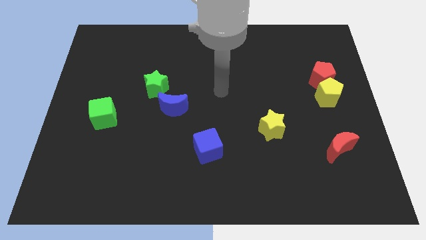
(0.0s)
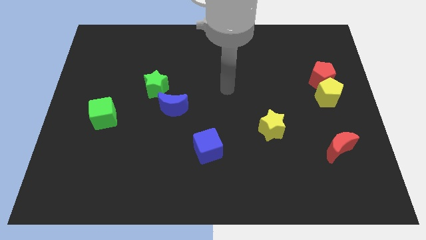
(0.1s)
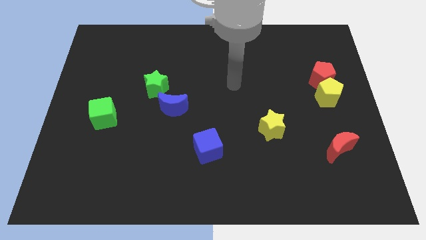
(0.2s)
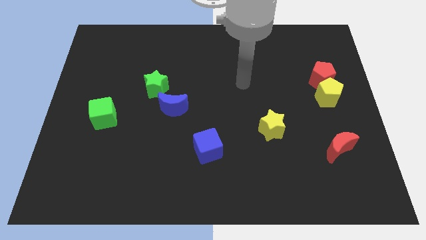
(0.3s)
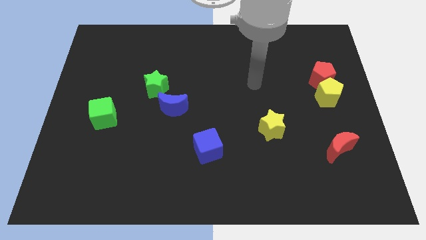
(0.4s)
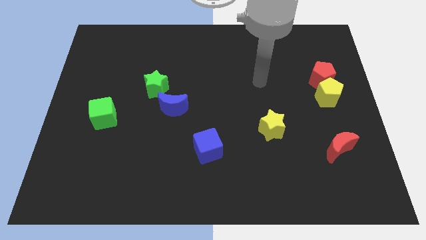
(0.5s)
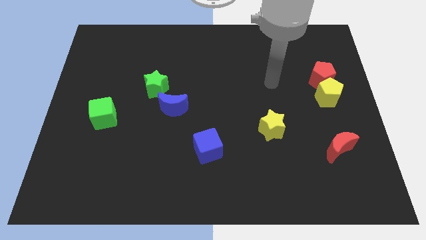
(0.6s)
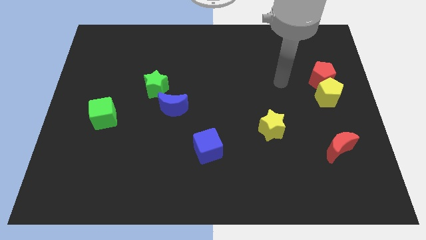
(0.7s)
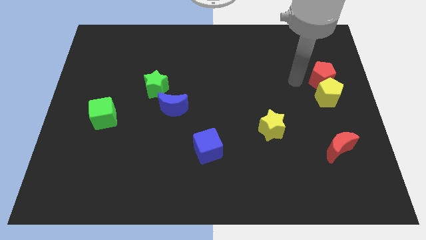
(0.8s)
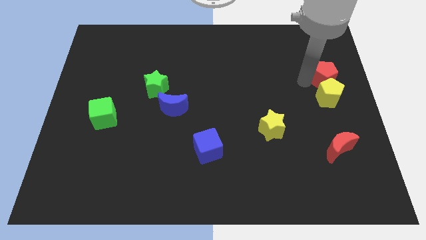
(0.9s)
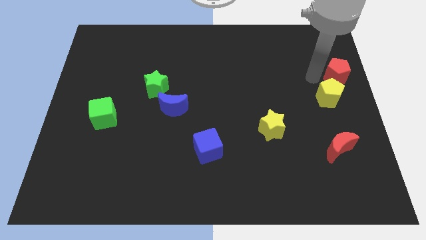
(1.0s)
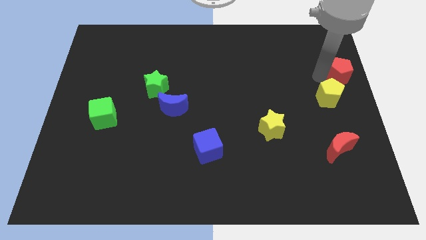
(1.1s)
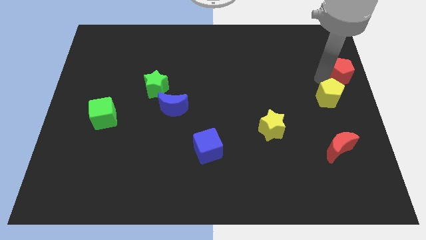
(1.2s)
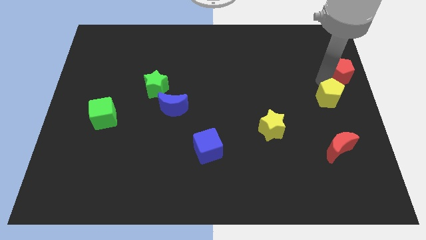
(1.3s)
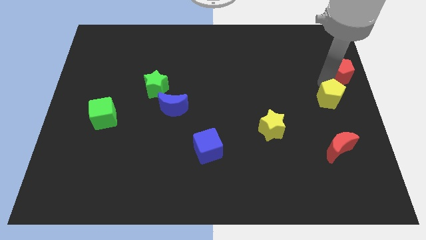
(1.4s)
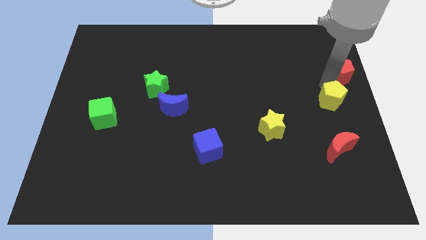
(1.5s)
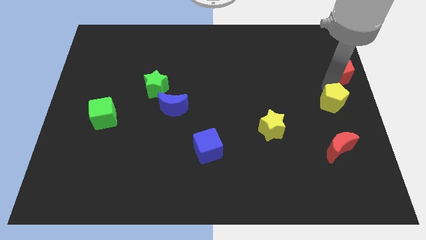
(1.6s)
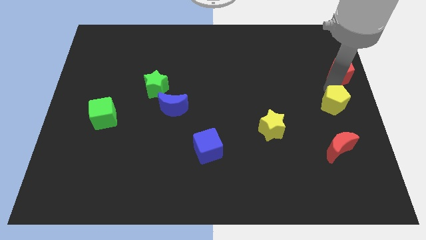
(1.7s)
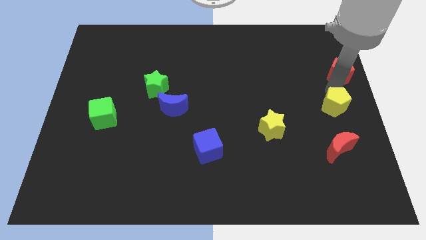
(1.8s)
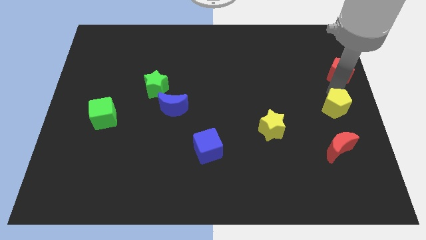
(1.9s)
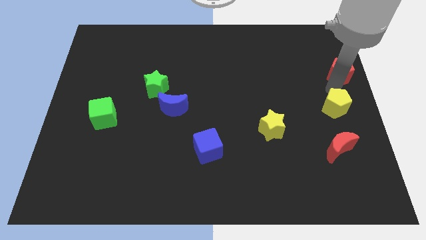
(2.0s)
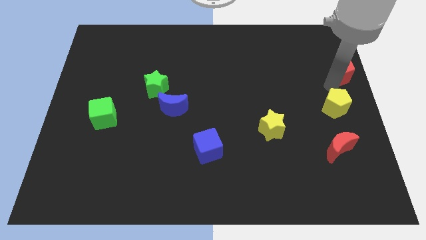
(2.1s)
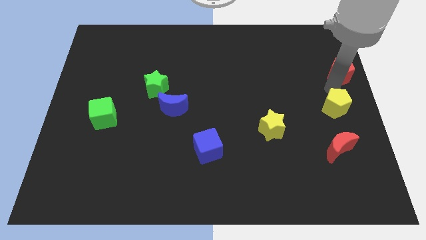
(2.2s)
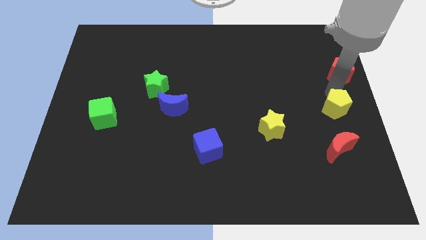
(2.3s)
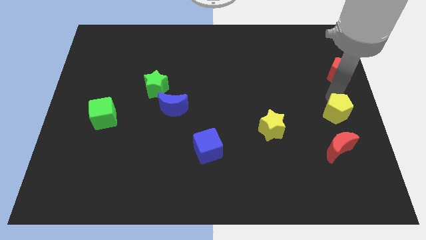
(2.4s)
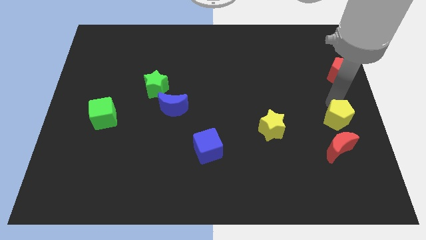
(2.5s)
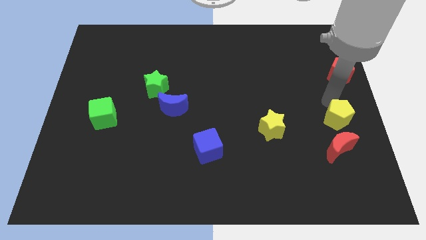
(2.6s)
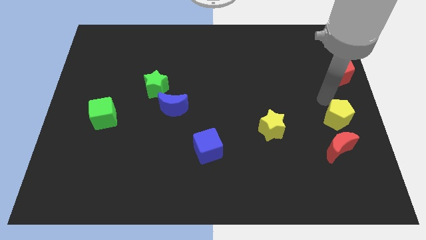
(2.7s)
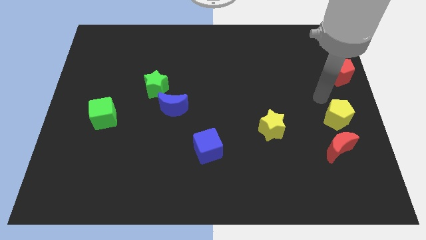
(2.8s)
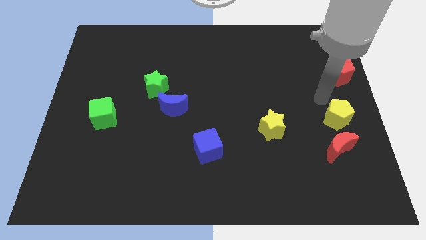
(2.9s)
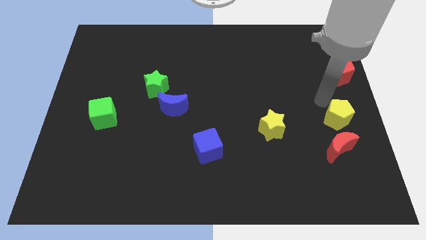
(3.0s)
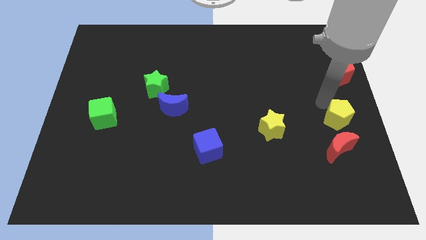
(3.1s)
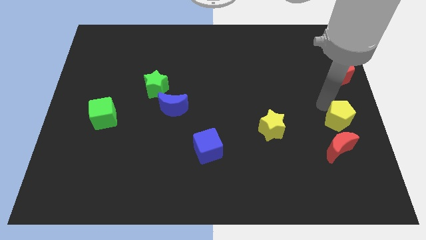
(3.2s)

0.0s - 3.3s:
slightly slide the yellow pentagon downwards

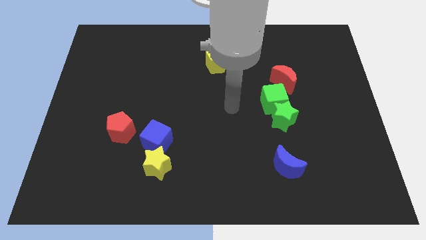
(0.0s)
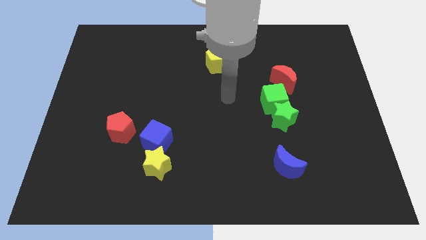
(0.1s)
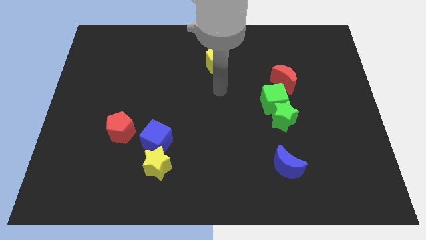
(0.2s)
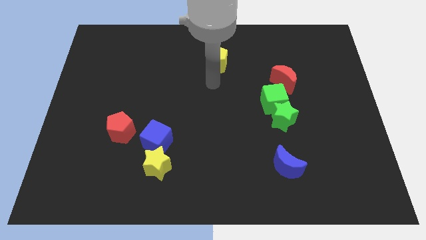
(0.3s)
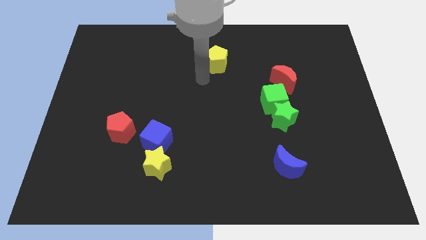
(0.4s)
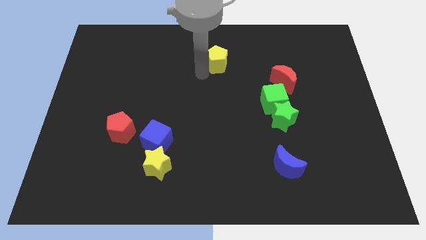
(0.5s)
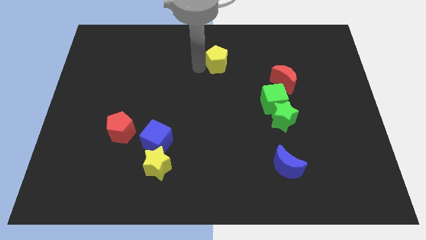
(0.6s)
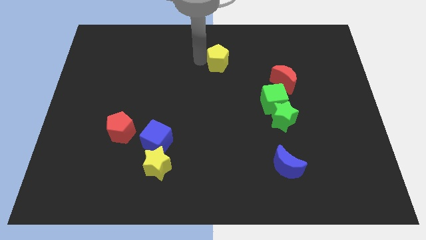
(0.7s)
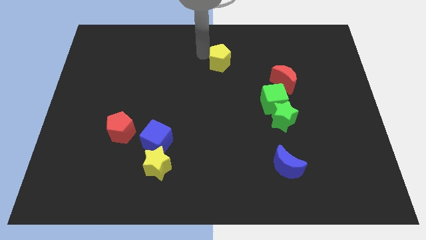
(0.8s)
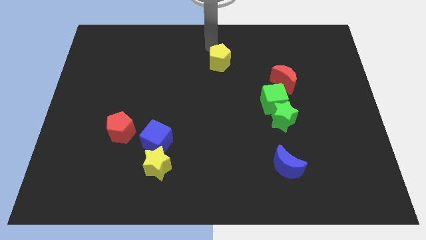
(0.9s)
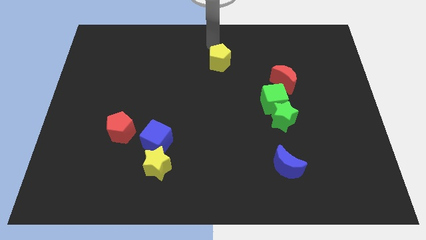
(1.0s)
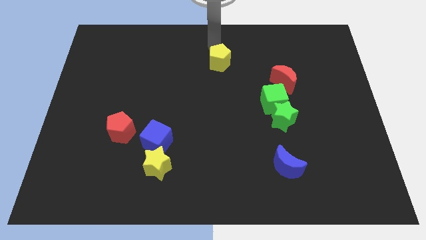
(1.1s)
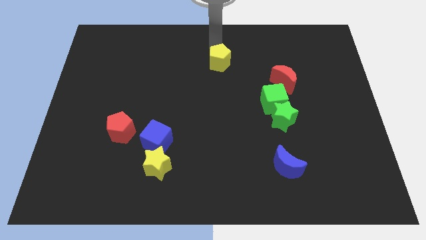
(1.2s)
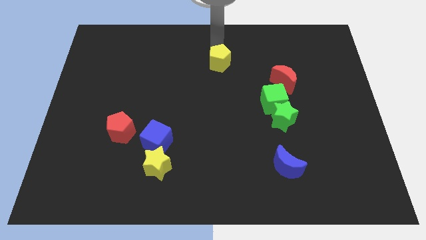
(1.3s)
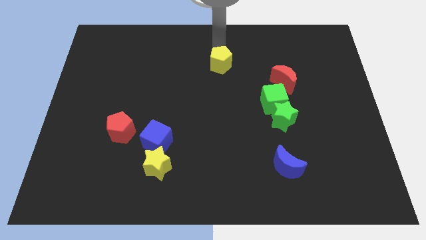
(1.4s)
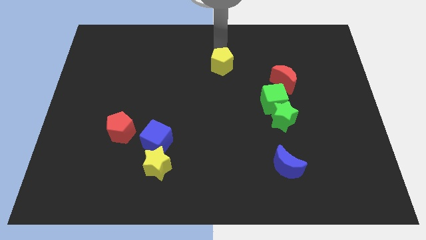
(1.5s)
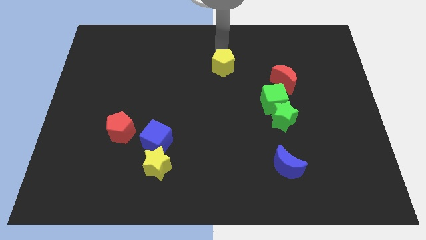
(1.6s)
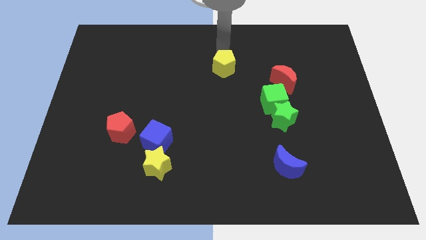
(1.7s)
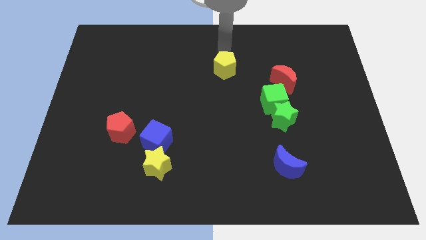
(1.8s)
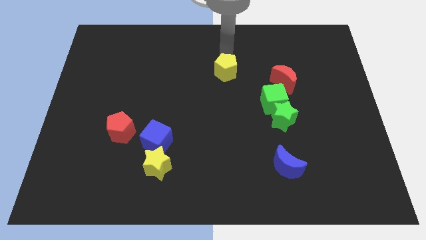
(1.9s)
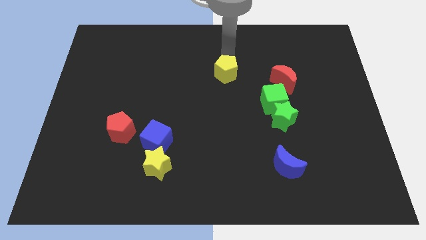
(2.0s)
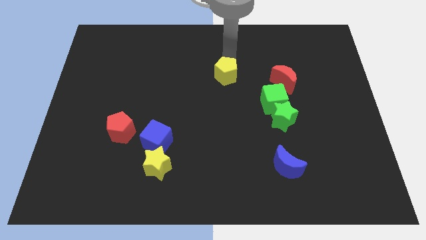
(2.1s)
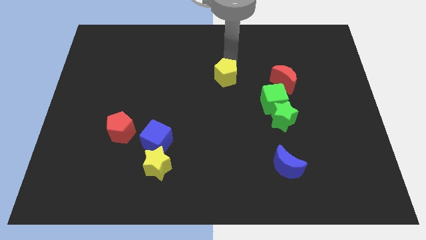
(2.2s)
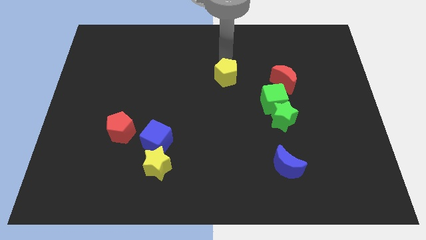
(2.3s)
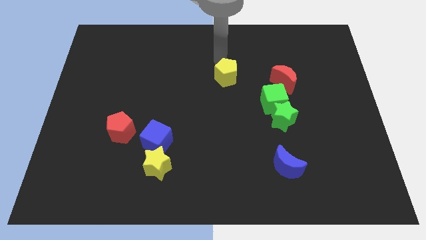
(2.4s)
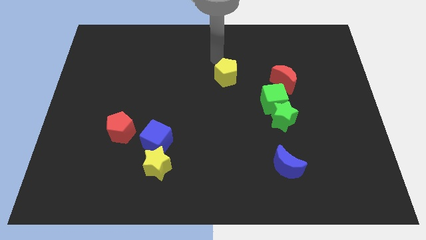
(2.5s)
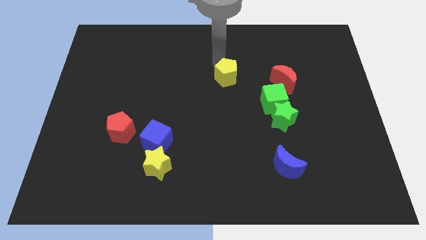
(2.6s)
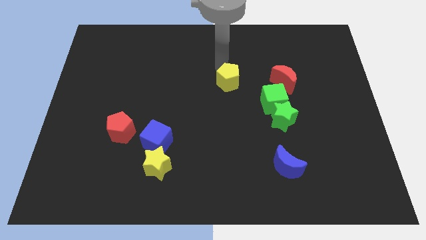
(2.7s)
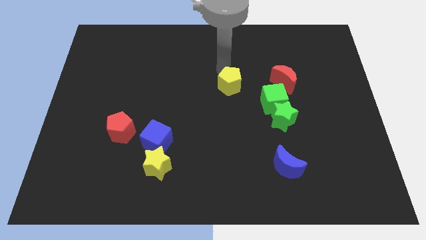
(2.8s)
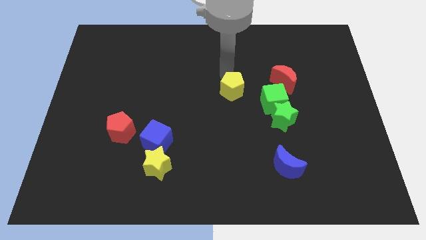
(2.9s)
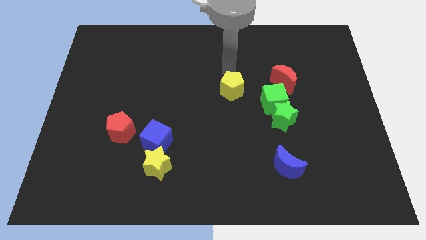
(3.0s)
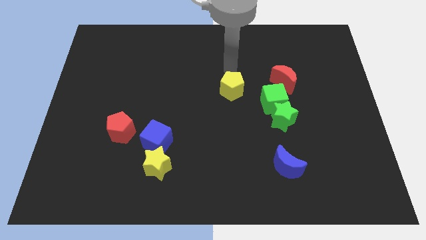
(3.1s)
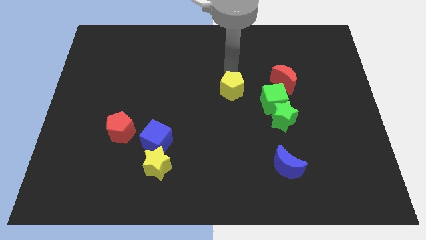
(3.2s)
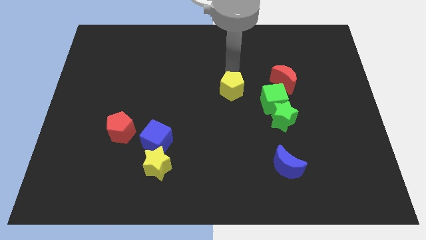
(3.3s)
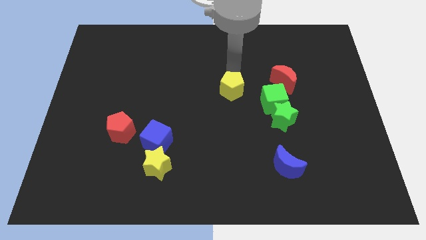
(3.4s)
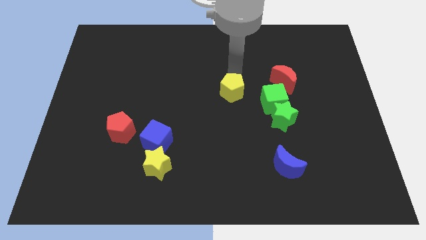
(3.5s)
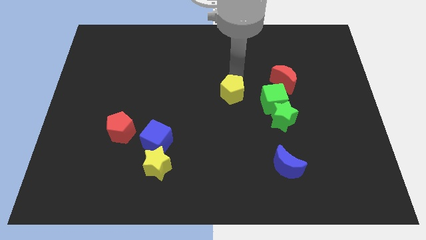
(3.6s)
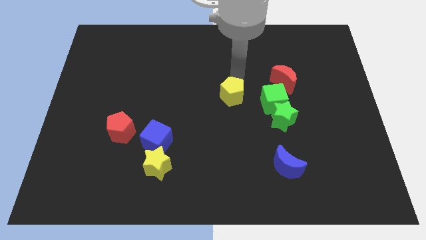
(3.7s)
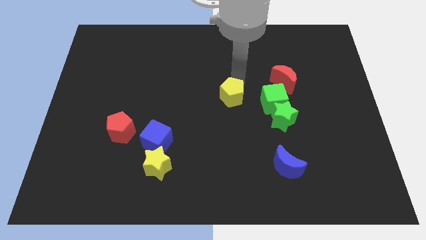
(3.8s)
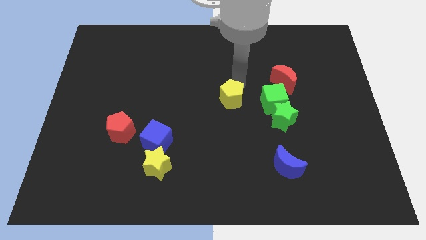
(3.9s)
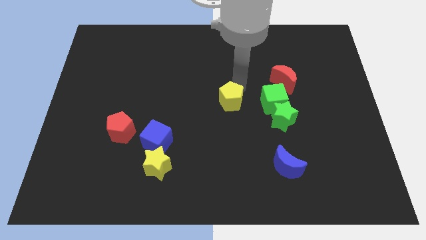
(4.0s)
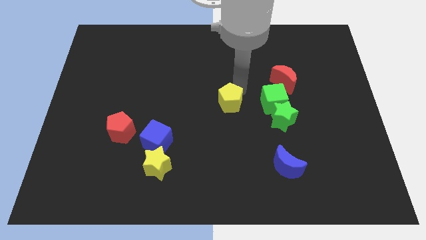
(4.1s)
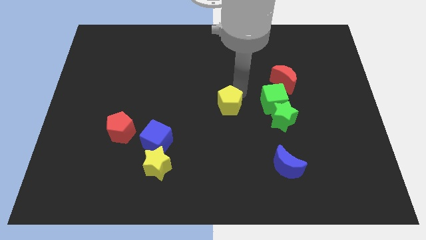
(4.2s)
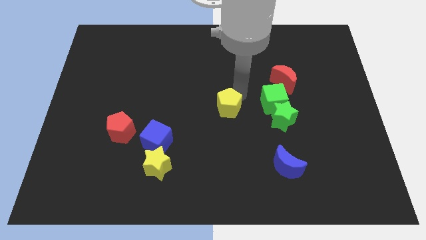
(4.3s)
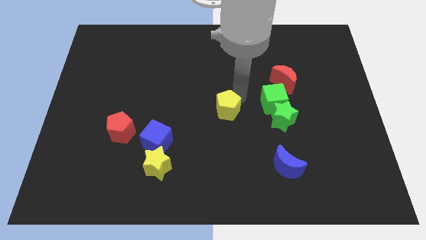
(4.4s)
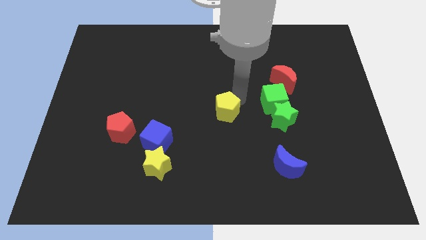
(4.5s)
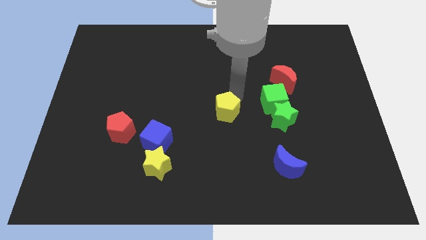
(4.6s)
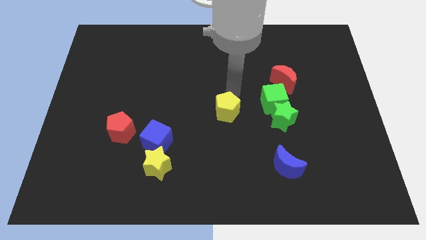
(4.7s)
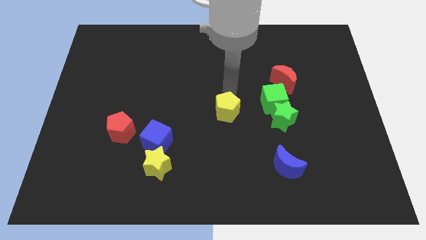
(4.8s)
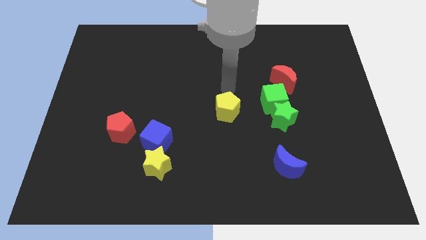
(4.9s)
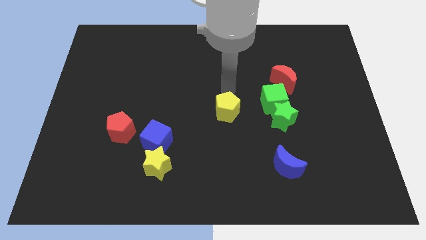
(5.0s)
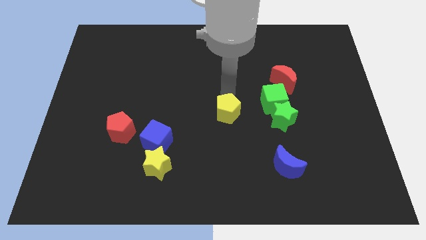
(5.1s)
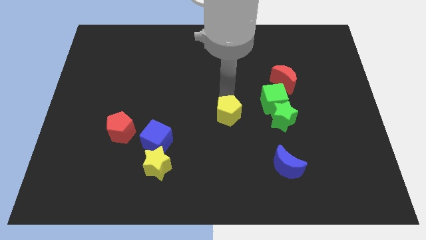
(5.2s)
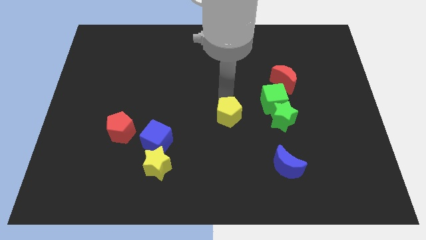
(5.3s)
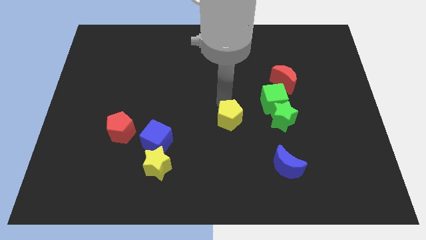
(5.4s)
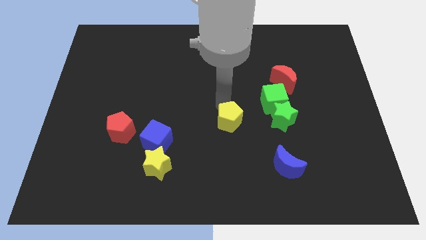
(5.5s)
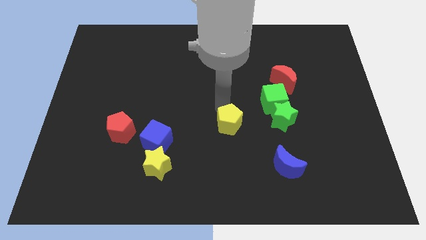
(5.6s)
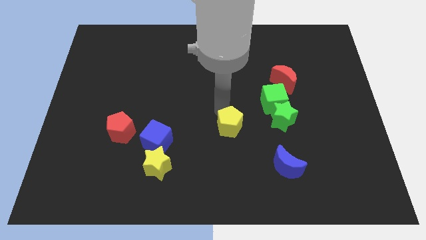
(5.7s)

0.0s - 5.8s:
push the yellow pentagon down
